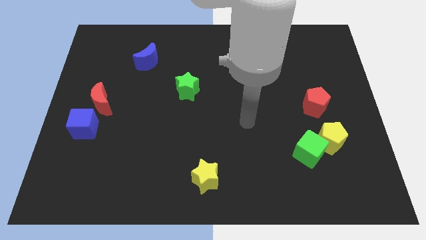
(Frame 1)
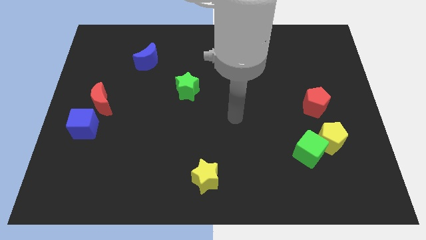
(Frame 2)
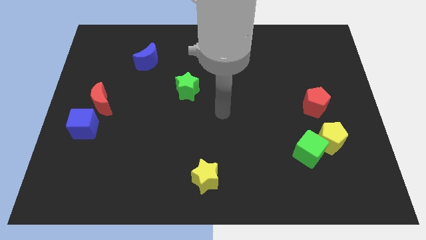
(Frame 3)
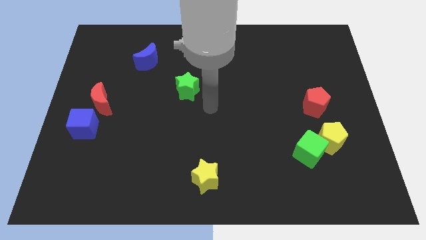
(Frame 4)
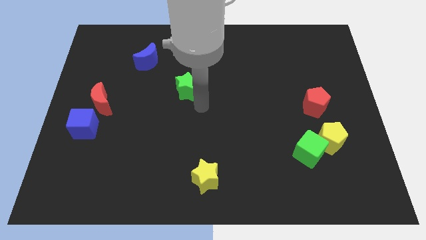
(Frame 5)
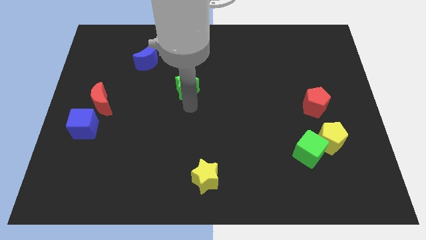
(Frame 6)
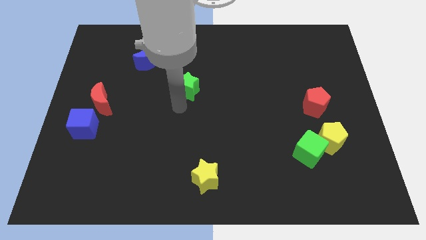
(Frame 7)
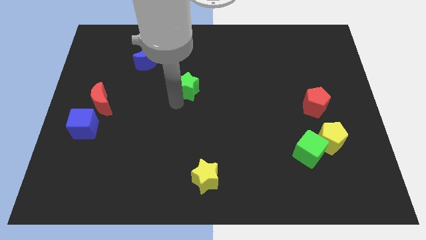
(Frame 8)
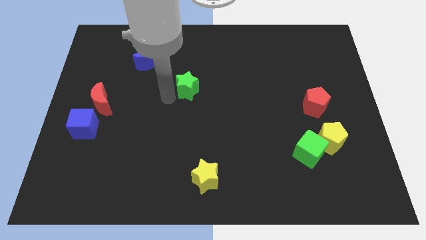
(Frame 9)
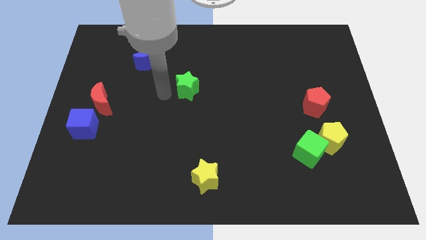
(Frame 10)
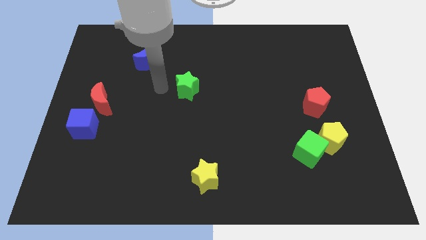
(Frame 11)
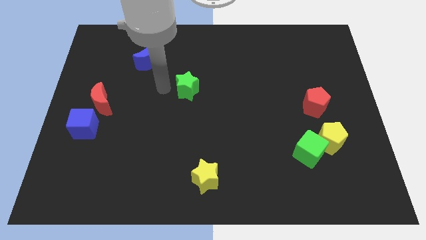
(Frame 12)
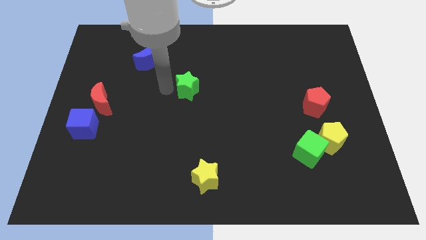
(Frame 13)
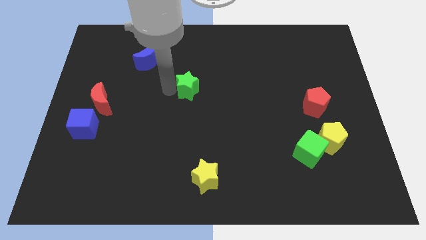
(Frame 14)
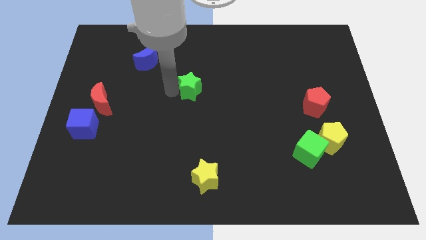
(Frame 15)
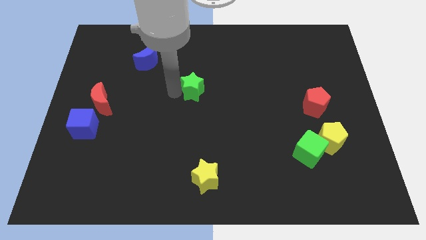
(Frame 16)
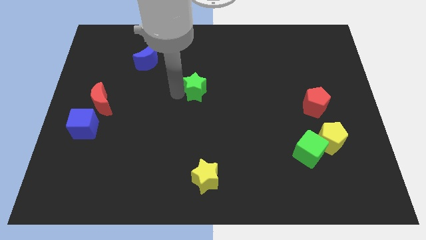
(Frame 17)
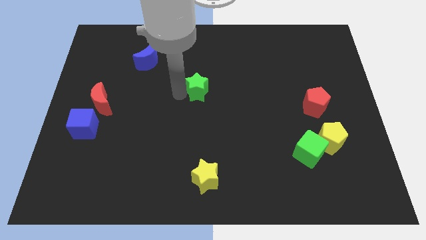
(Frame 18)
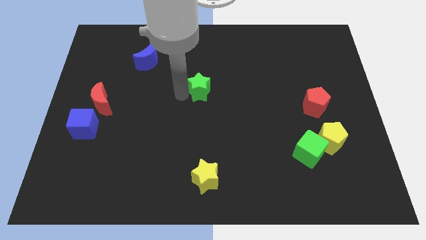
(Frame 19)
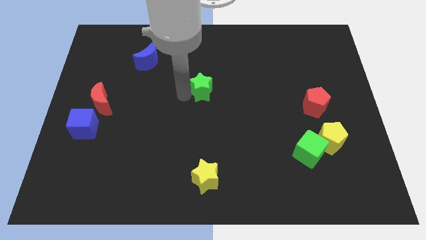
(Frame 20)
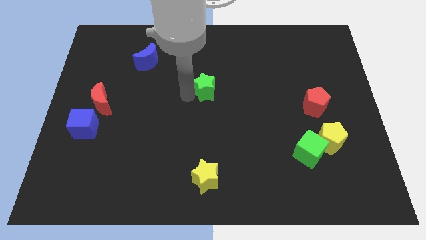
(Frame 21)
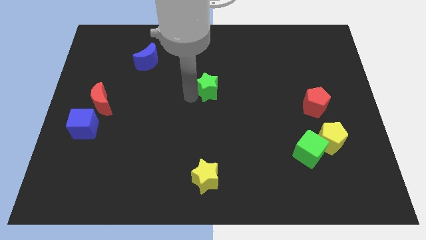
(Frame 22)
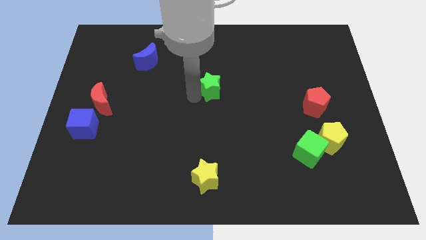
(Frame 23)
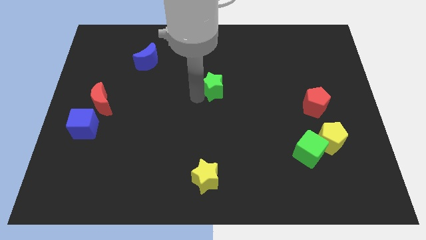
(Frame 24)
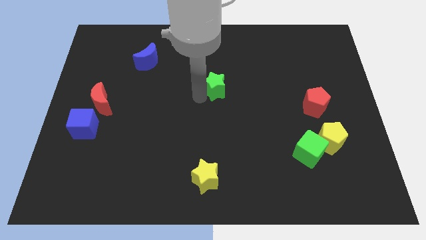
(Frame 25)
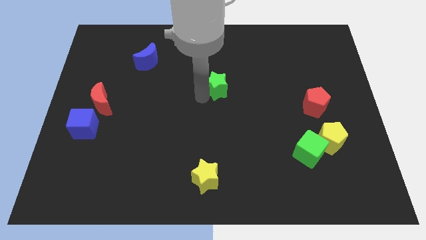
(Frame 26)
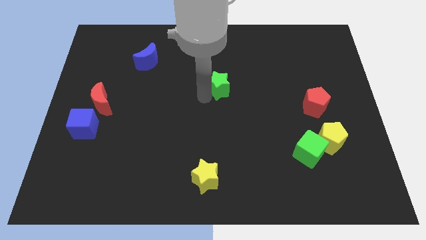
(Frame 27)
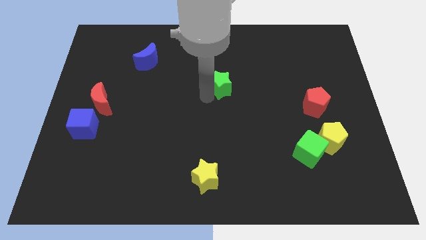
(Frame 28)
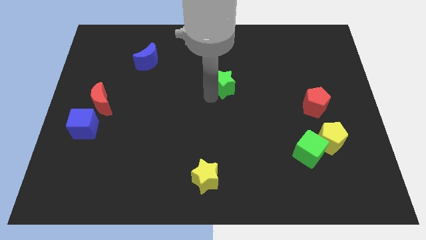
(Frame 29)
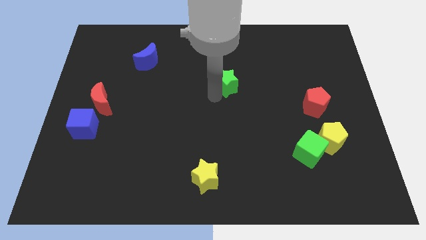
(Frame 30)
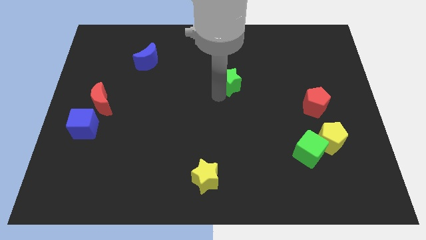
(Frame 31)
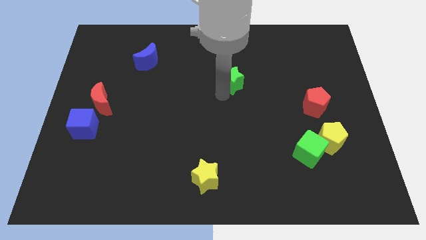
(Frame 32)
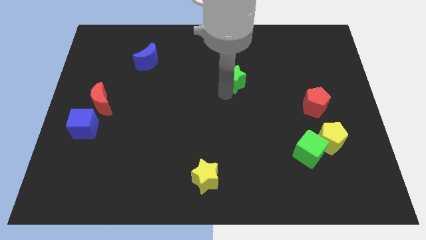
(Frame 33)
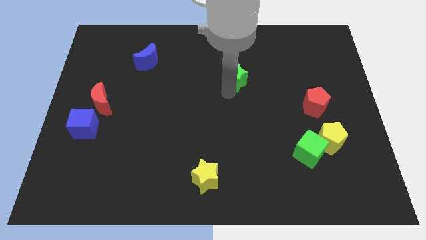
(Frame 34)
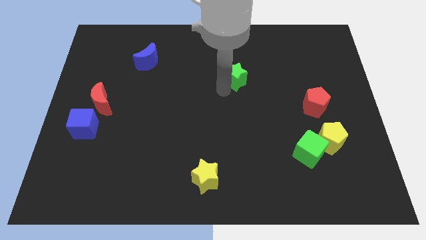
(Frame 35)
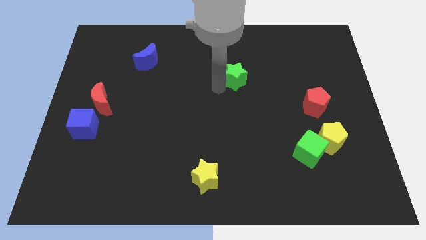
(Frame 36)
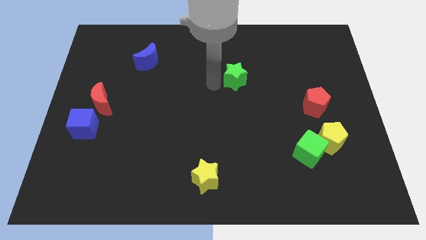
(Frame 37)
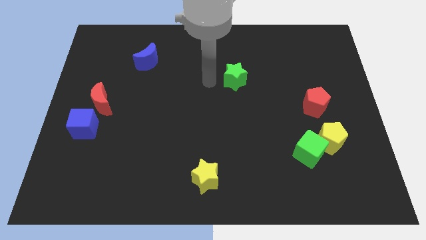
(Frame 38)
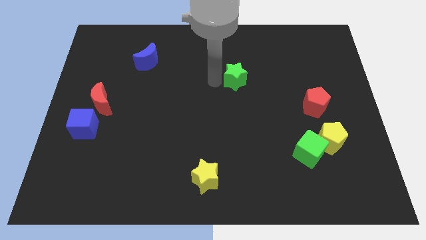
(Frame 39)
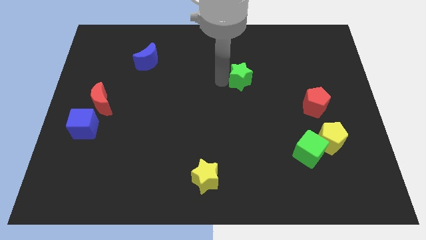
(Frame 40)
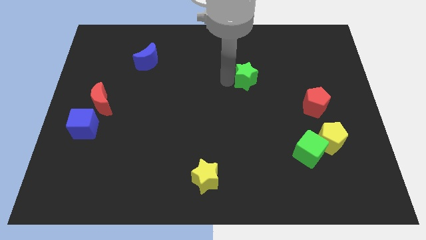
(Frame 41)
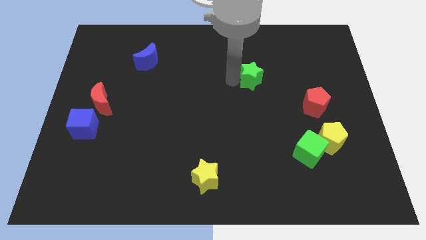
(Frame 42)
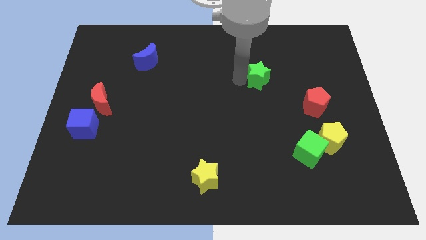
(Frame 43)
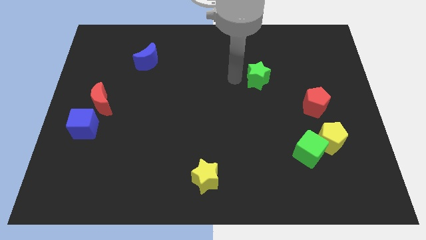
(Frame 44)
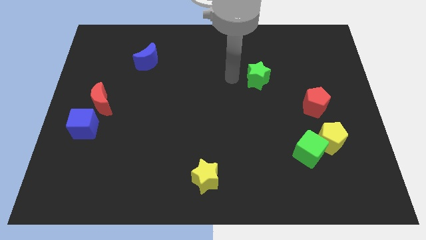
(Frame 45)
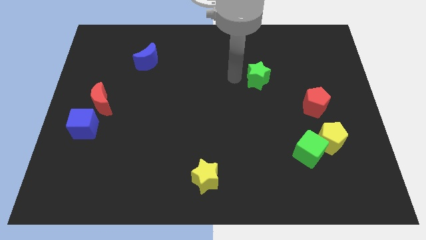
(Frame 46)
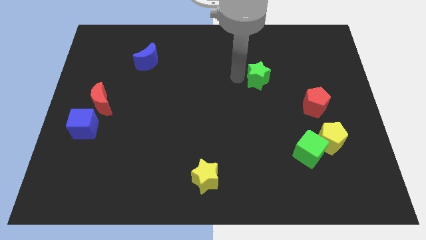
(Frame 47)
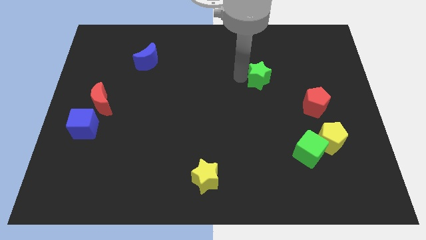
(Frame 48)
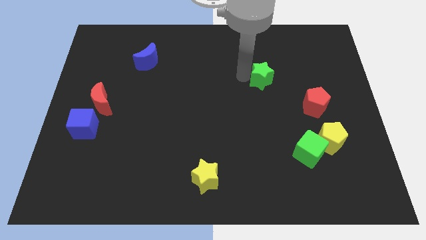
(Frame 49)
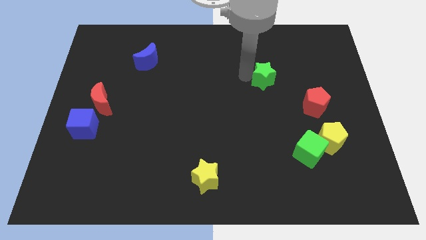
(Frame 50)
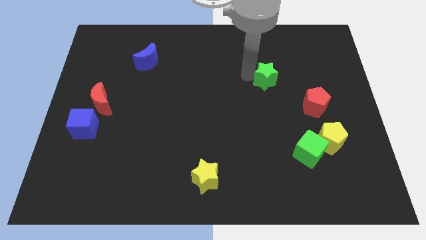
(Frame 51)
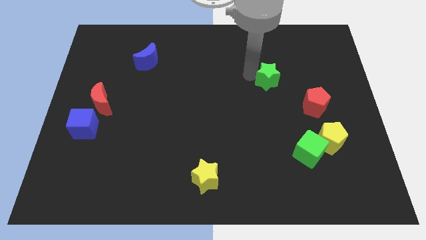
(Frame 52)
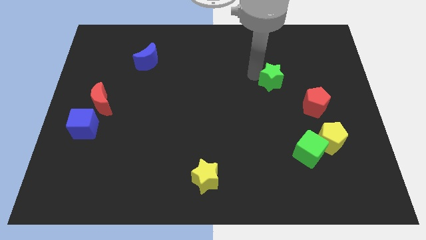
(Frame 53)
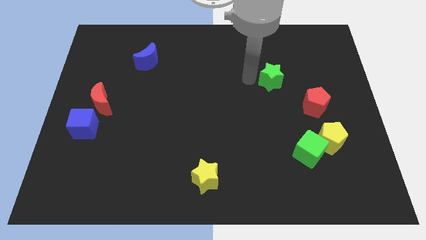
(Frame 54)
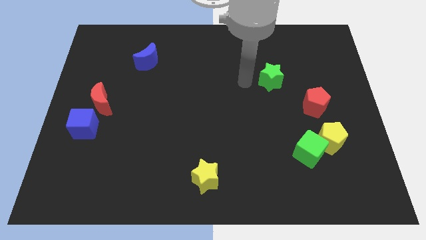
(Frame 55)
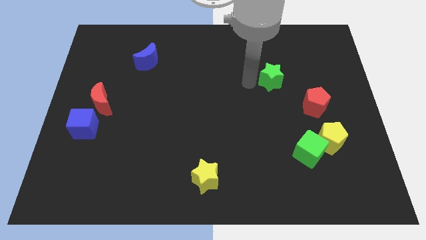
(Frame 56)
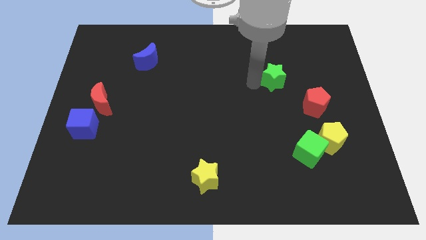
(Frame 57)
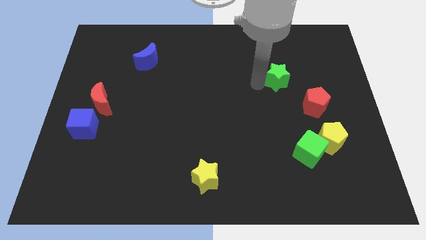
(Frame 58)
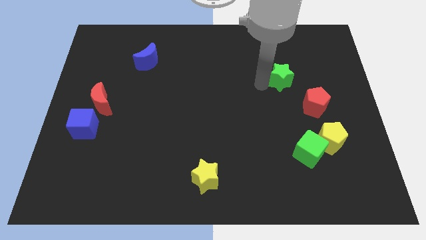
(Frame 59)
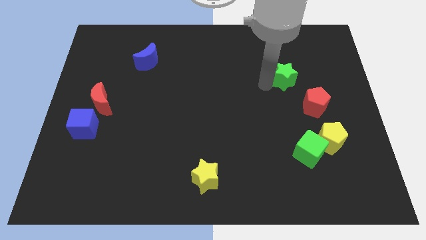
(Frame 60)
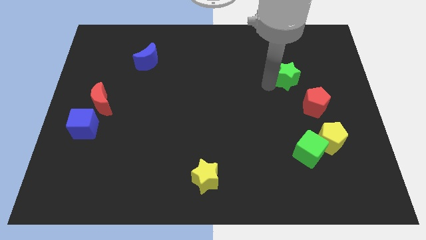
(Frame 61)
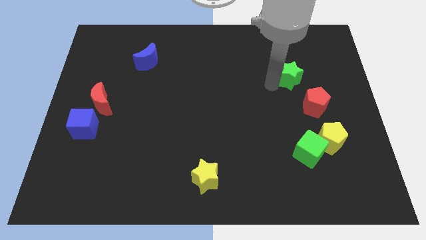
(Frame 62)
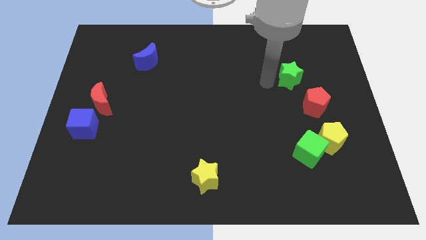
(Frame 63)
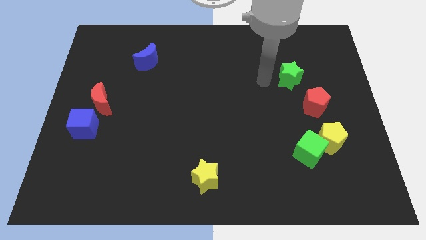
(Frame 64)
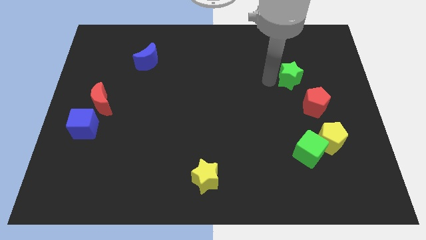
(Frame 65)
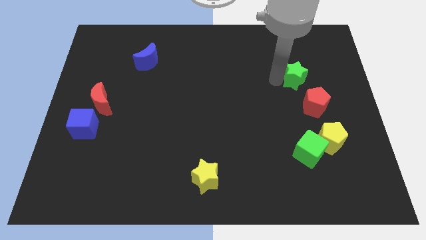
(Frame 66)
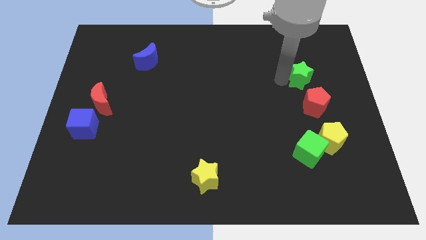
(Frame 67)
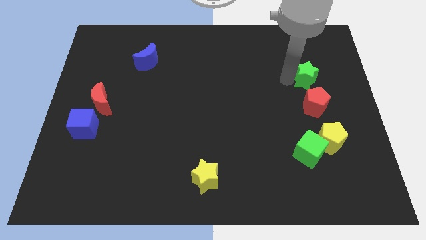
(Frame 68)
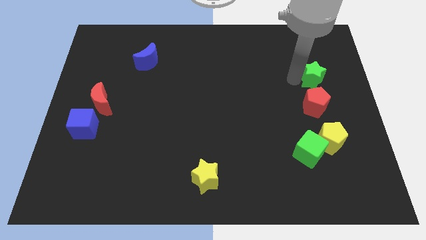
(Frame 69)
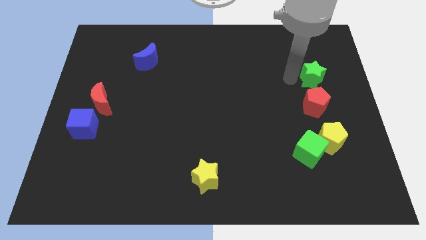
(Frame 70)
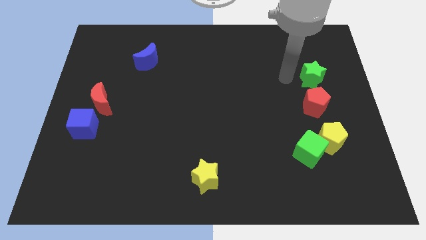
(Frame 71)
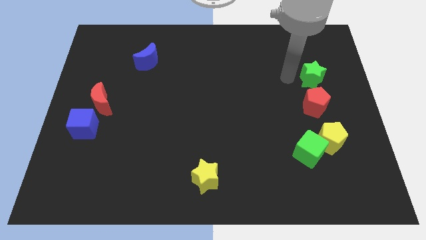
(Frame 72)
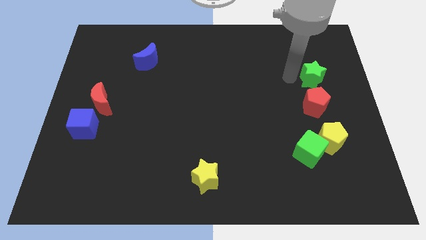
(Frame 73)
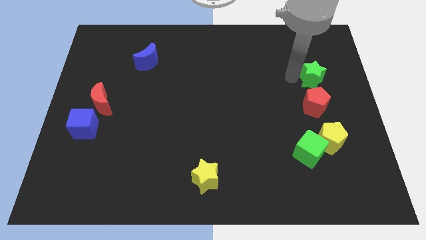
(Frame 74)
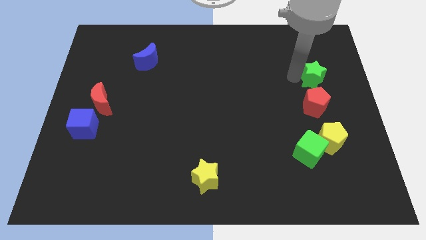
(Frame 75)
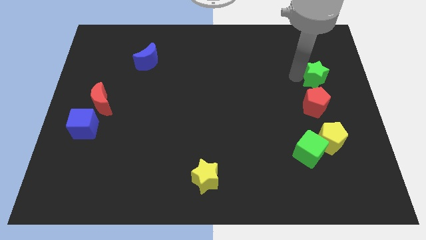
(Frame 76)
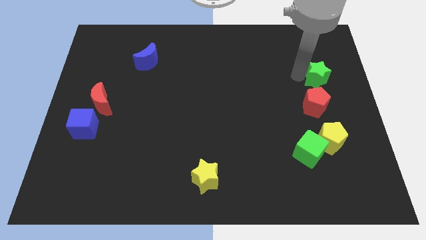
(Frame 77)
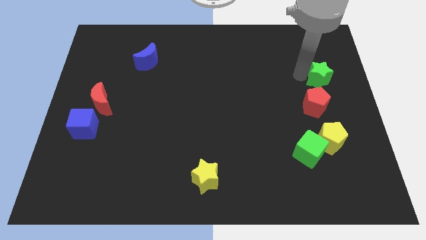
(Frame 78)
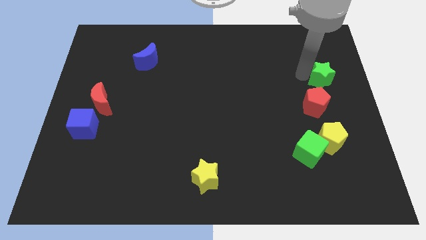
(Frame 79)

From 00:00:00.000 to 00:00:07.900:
push the green star to the right side of the board
